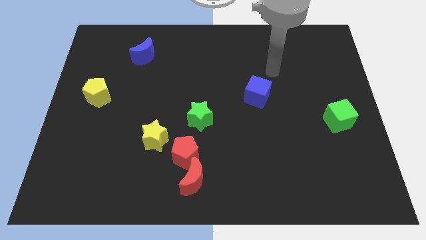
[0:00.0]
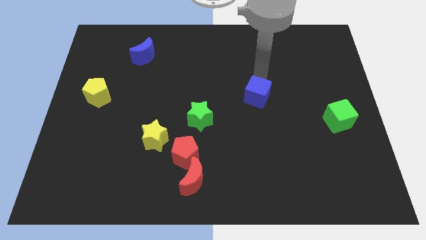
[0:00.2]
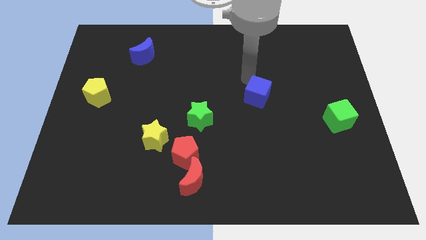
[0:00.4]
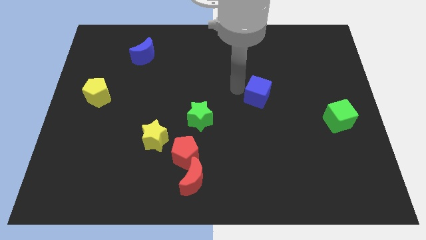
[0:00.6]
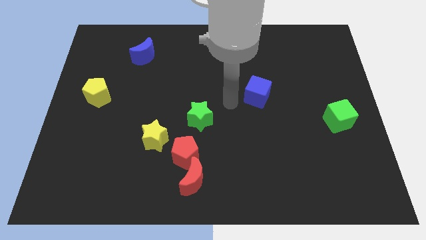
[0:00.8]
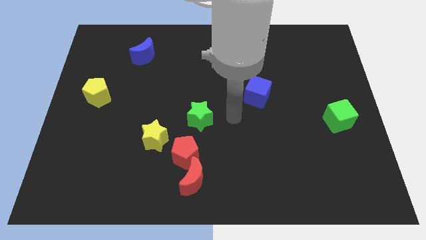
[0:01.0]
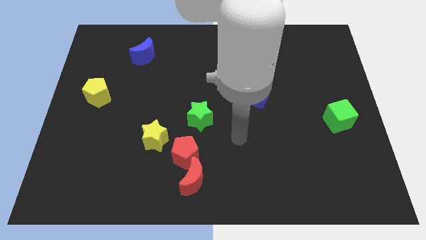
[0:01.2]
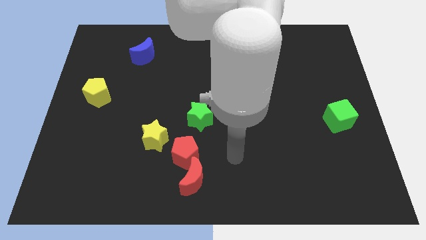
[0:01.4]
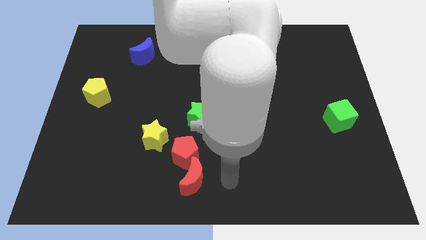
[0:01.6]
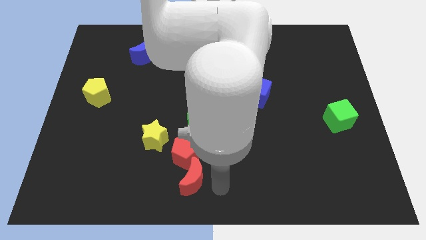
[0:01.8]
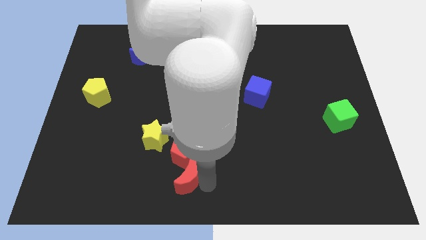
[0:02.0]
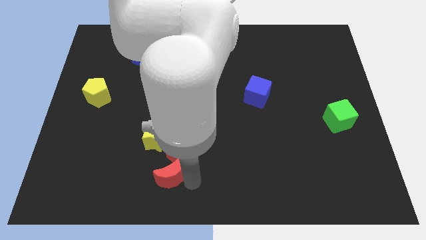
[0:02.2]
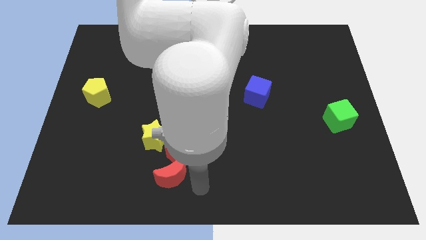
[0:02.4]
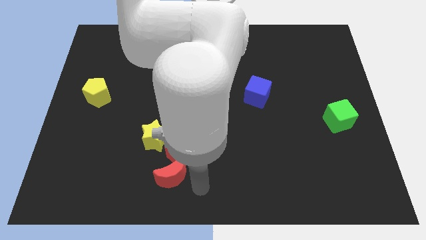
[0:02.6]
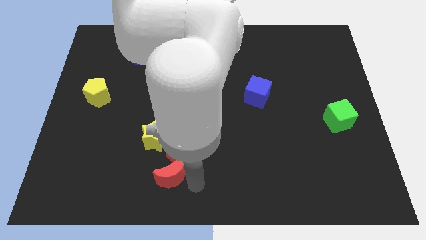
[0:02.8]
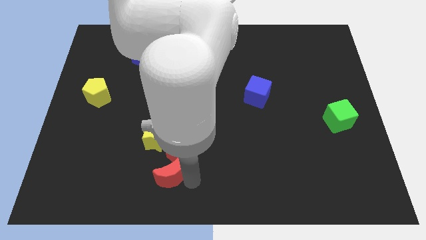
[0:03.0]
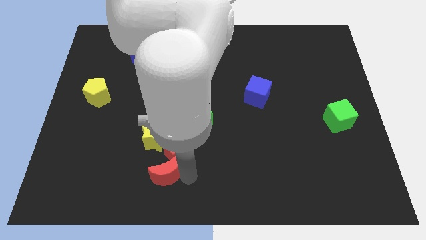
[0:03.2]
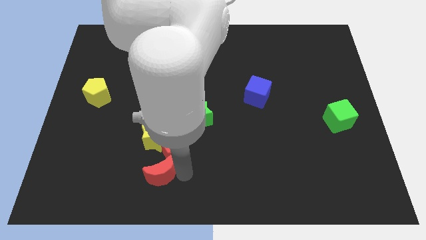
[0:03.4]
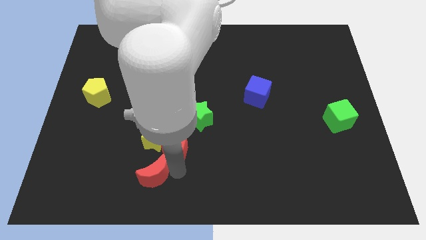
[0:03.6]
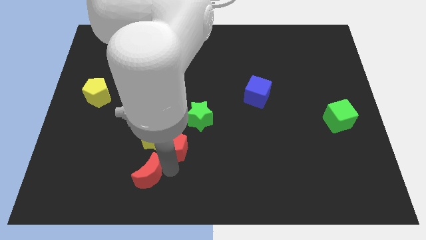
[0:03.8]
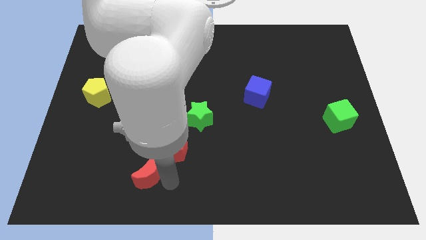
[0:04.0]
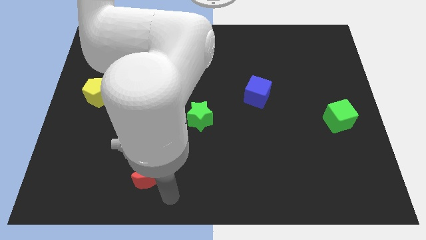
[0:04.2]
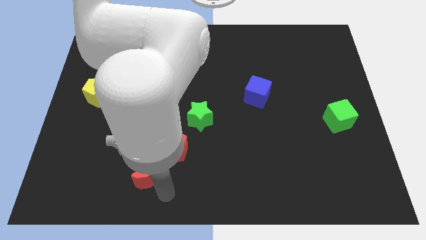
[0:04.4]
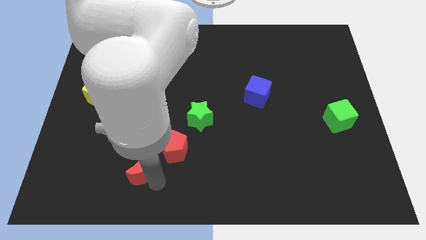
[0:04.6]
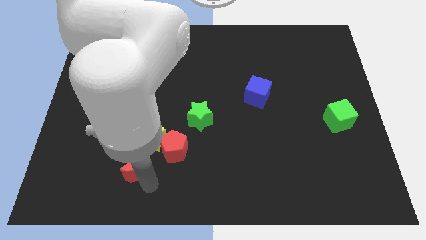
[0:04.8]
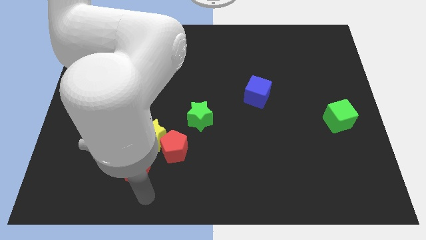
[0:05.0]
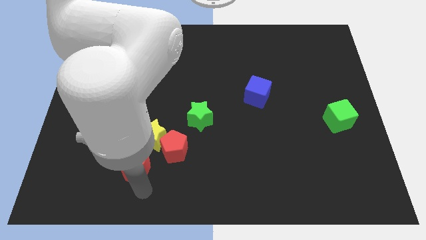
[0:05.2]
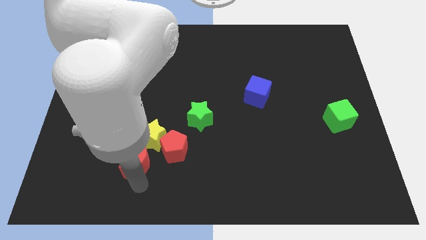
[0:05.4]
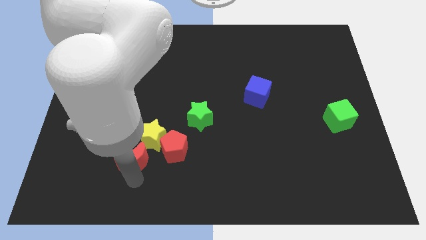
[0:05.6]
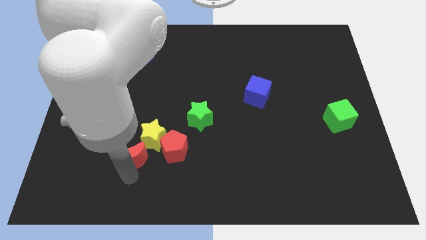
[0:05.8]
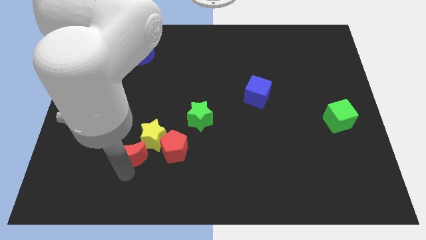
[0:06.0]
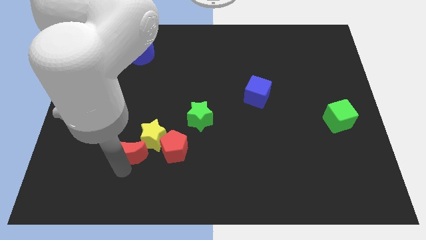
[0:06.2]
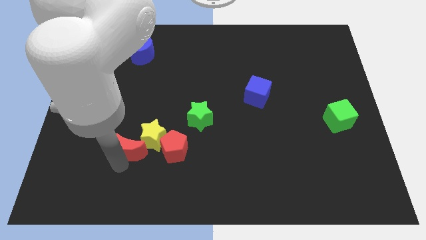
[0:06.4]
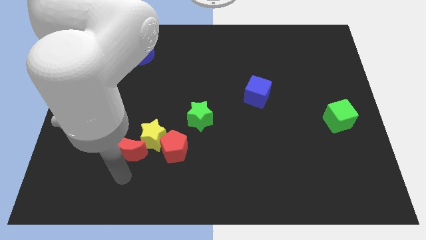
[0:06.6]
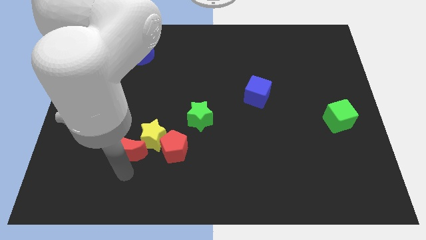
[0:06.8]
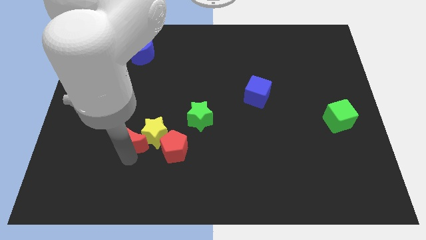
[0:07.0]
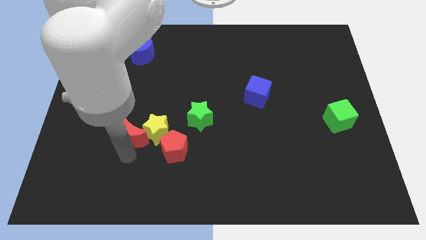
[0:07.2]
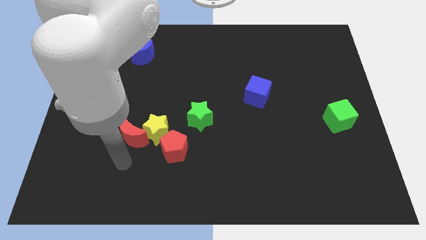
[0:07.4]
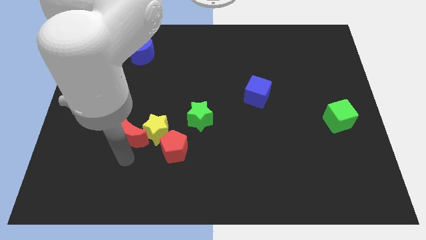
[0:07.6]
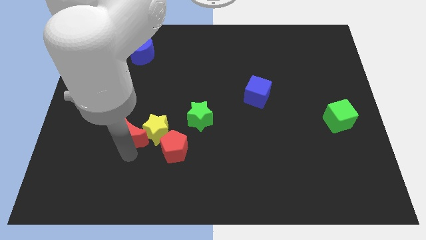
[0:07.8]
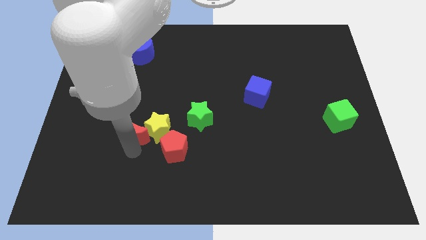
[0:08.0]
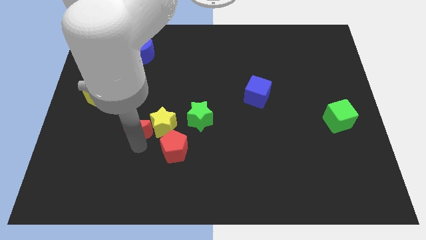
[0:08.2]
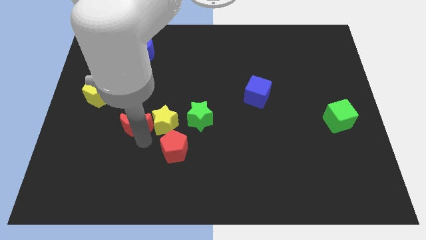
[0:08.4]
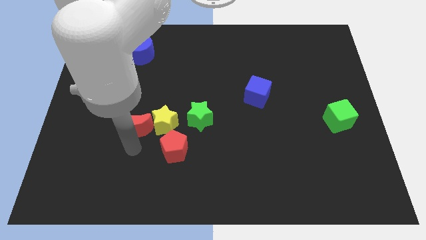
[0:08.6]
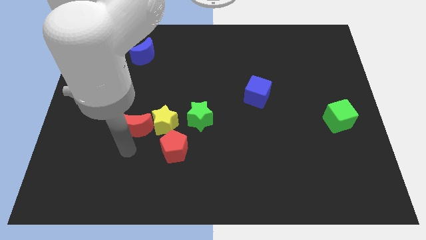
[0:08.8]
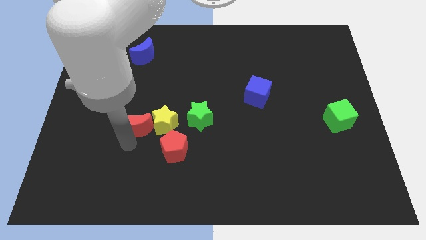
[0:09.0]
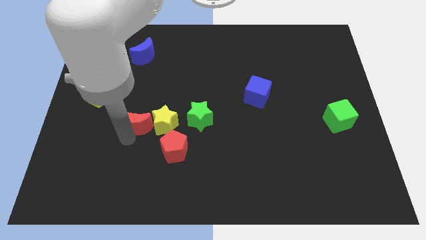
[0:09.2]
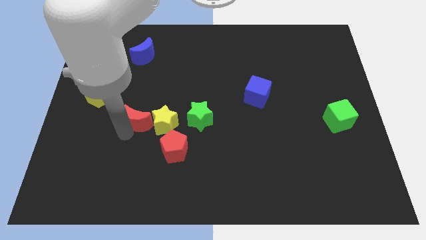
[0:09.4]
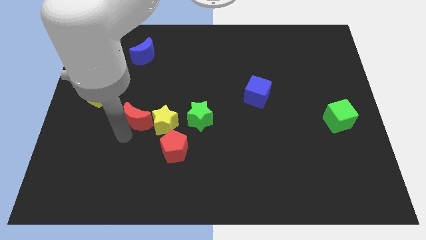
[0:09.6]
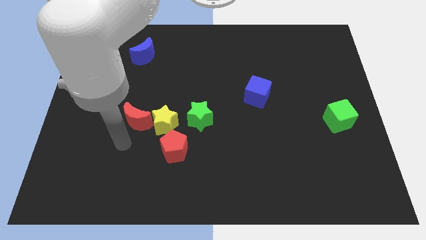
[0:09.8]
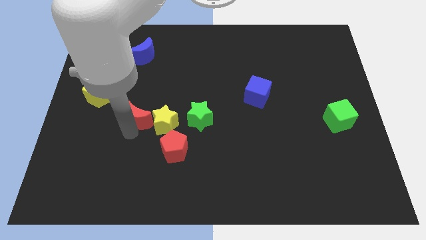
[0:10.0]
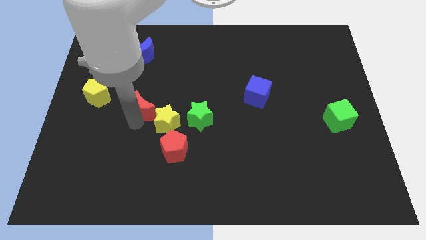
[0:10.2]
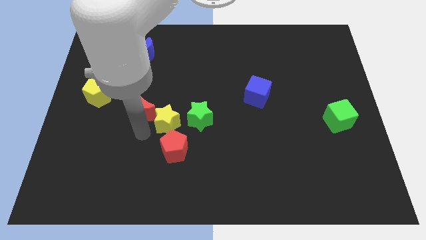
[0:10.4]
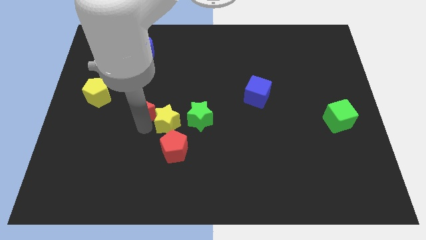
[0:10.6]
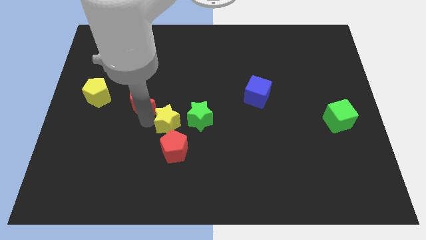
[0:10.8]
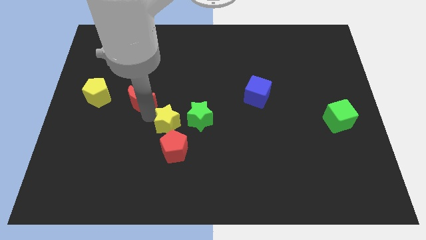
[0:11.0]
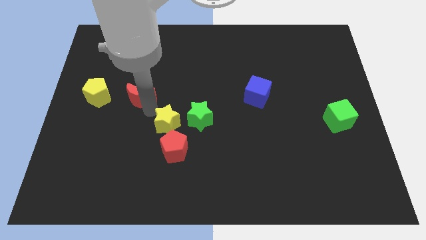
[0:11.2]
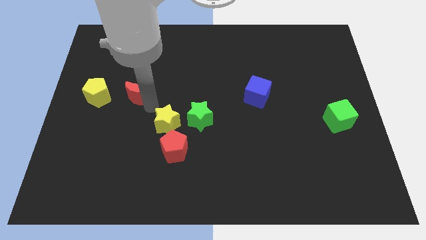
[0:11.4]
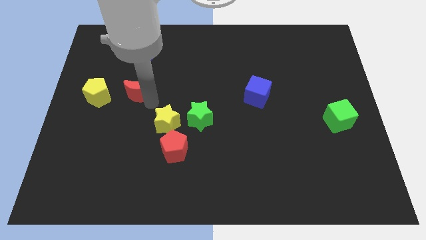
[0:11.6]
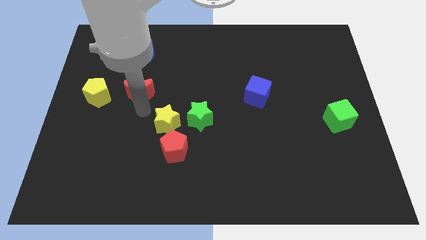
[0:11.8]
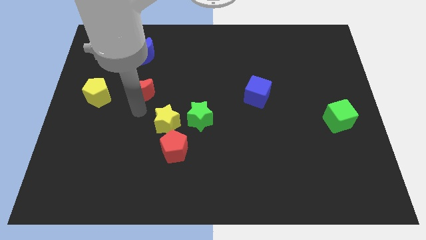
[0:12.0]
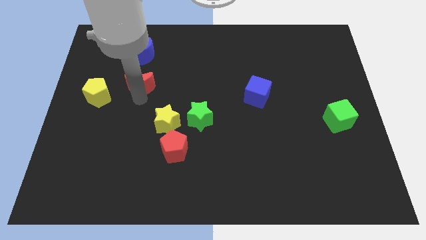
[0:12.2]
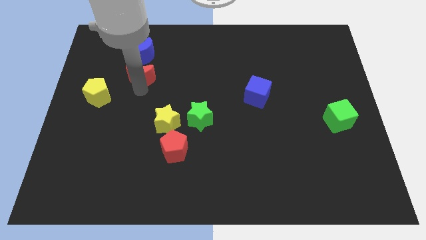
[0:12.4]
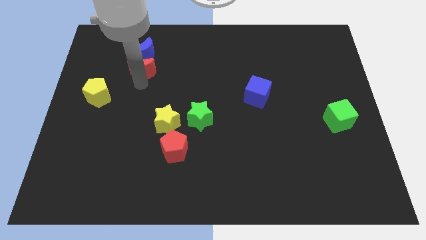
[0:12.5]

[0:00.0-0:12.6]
put the red moon towards the blue moon

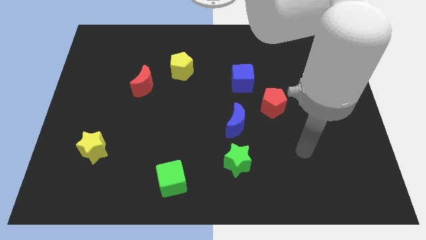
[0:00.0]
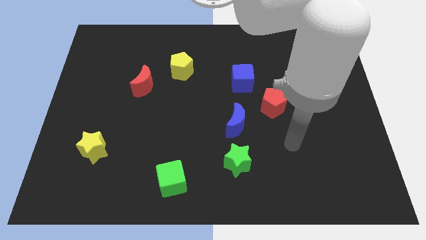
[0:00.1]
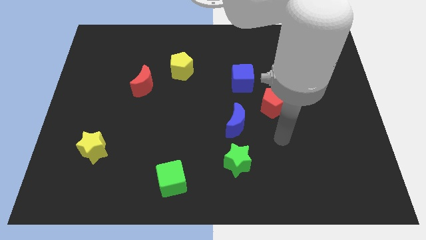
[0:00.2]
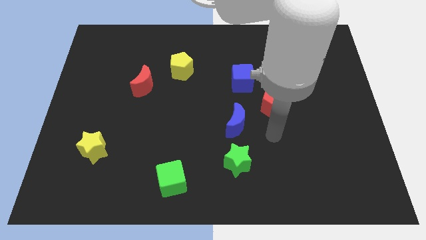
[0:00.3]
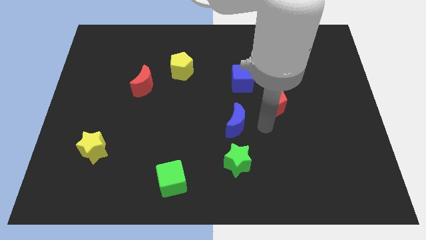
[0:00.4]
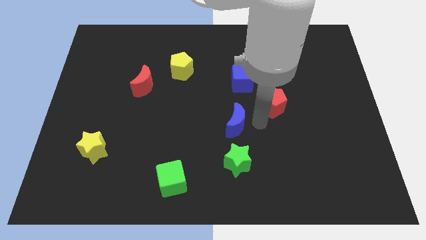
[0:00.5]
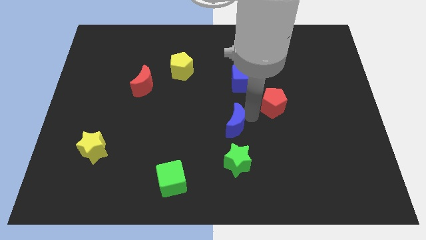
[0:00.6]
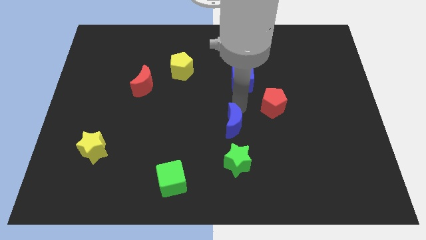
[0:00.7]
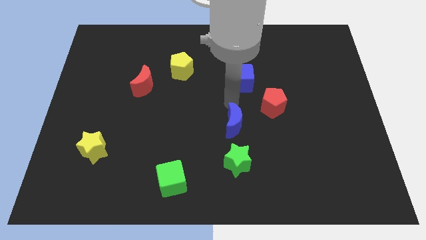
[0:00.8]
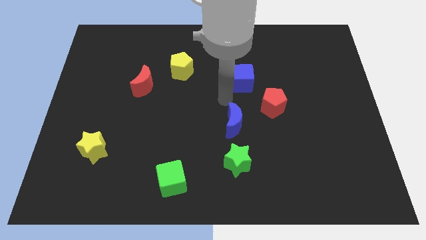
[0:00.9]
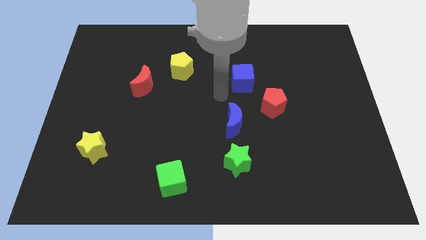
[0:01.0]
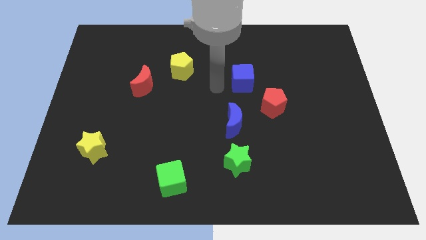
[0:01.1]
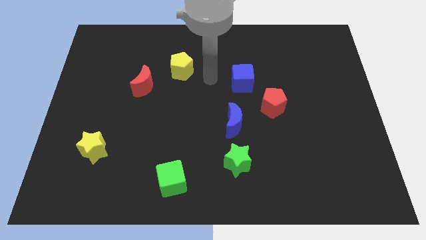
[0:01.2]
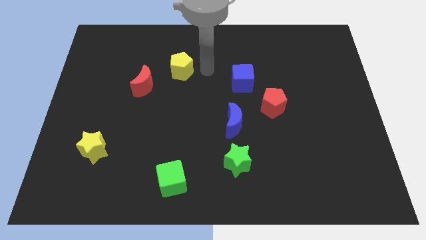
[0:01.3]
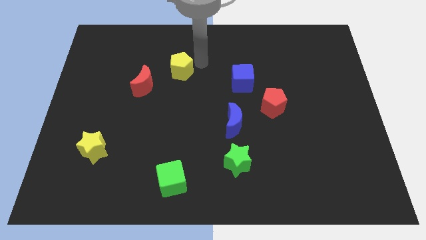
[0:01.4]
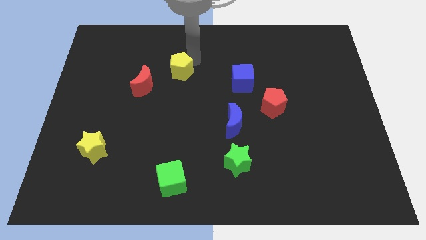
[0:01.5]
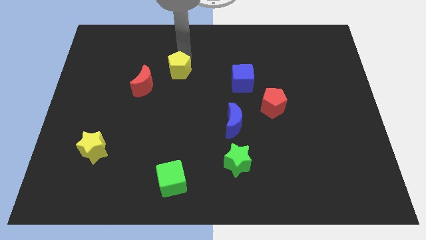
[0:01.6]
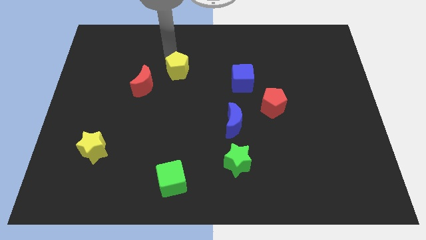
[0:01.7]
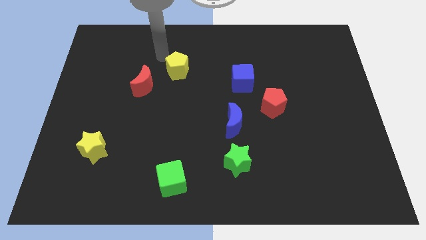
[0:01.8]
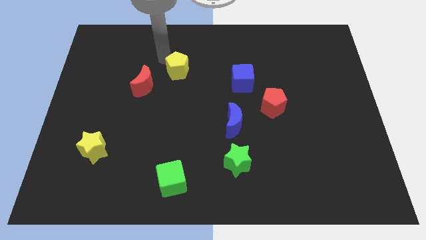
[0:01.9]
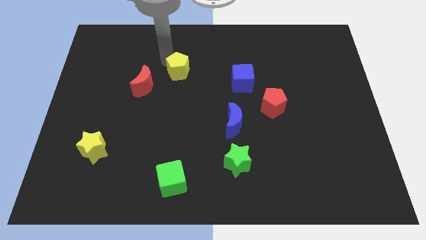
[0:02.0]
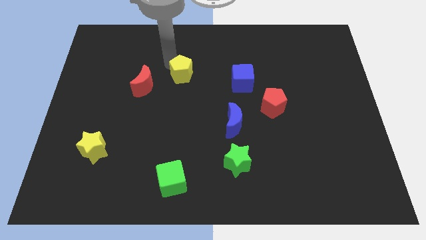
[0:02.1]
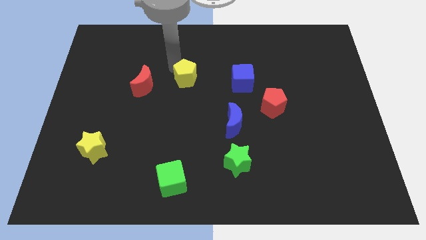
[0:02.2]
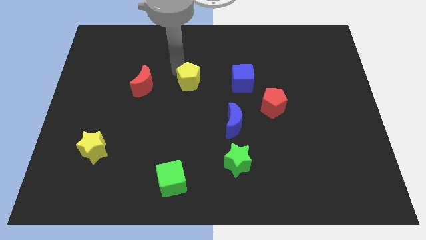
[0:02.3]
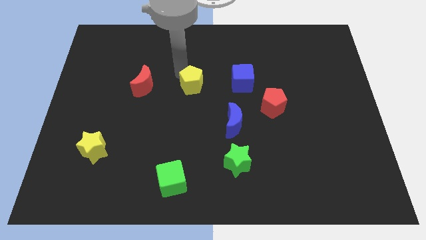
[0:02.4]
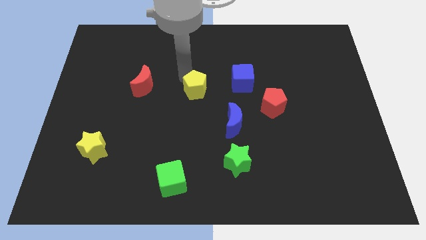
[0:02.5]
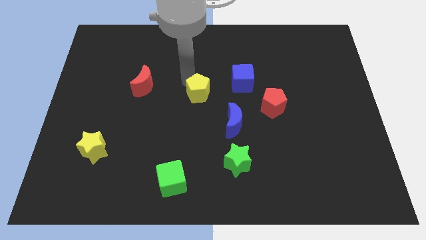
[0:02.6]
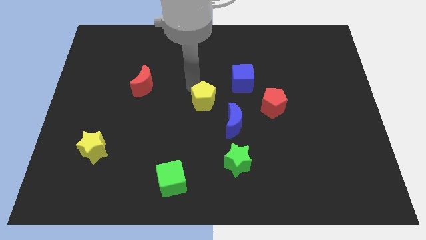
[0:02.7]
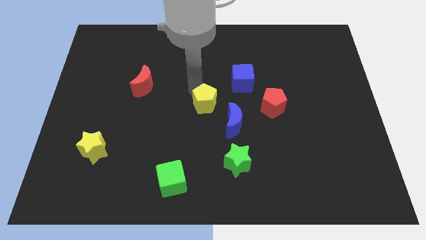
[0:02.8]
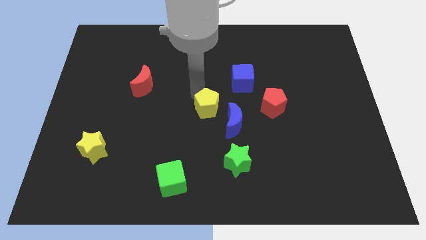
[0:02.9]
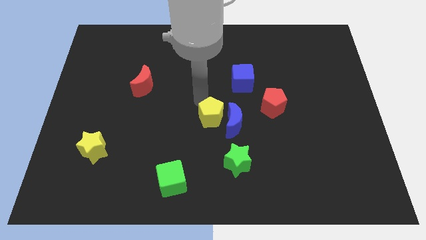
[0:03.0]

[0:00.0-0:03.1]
push the yellow pentagon to the blue moon
